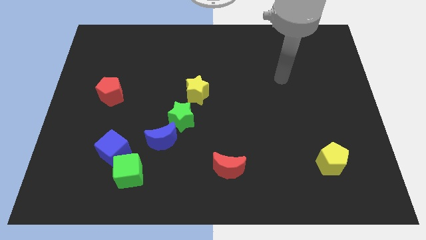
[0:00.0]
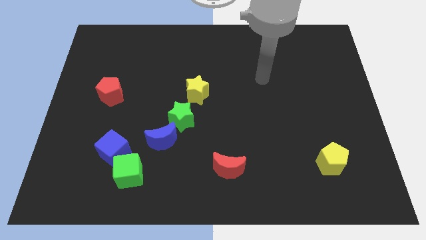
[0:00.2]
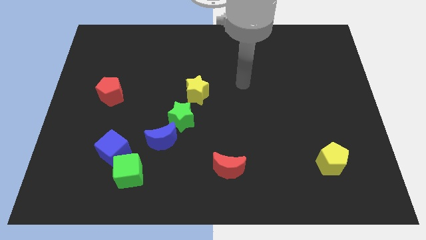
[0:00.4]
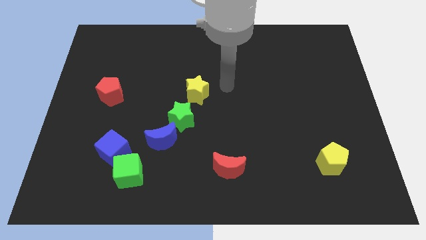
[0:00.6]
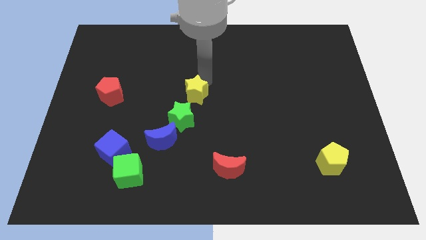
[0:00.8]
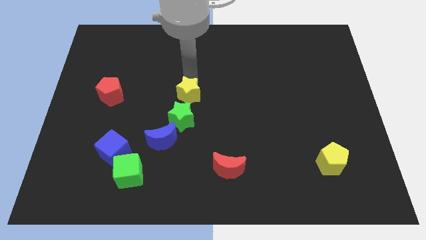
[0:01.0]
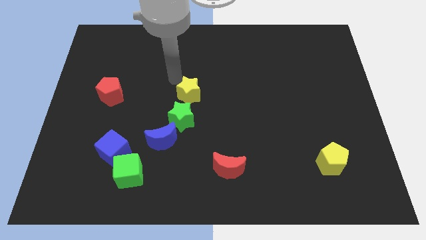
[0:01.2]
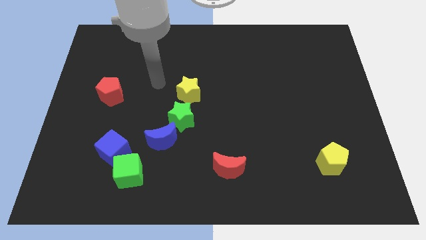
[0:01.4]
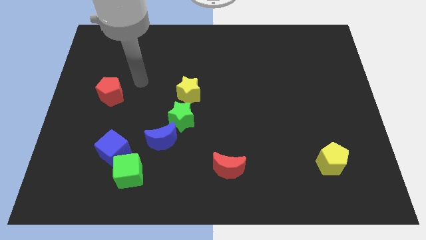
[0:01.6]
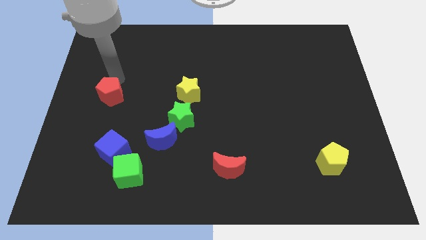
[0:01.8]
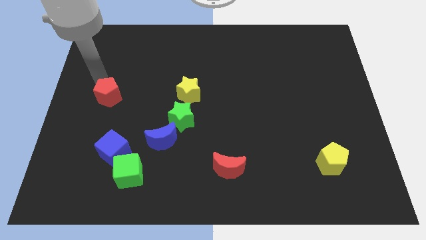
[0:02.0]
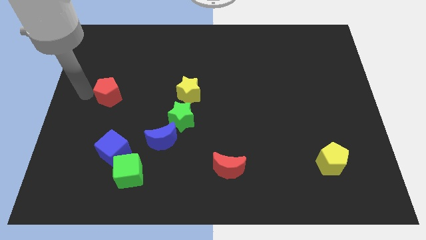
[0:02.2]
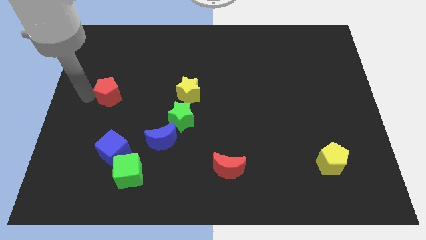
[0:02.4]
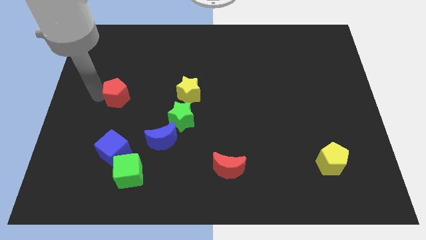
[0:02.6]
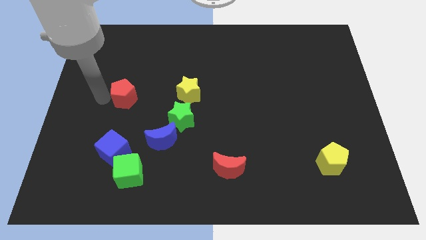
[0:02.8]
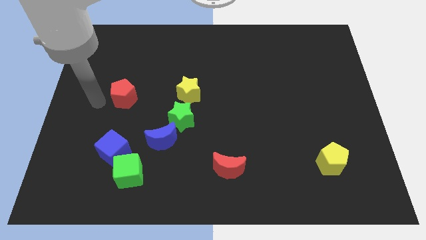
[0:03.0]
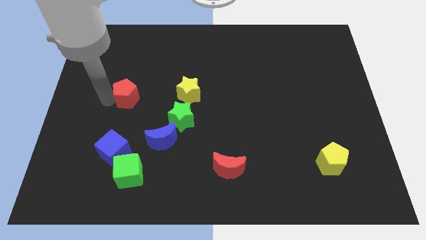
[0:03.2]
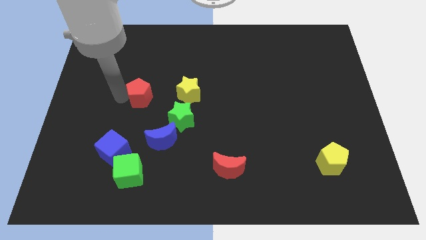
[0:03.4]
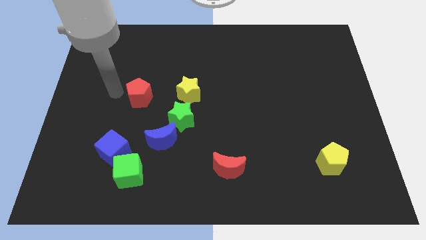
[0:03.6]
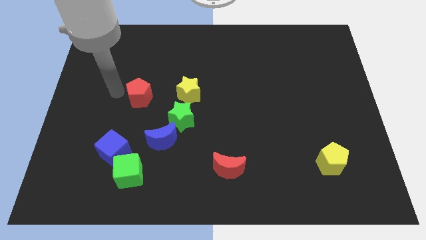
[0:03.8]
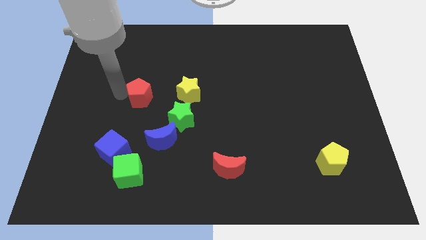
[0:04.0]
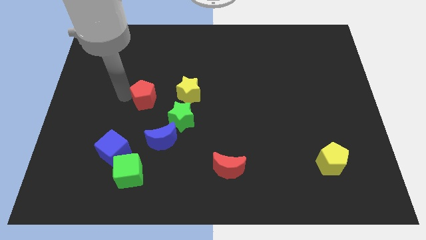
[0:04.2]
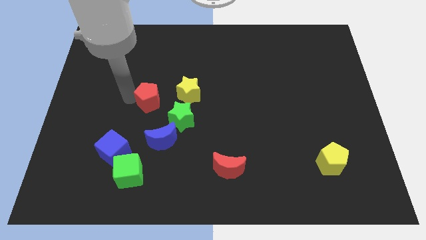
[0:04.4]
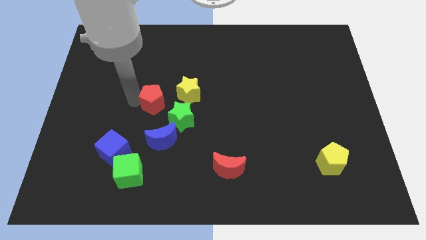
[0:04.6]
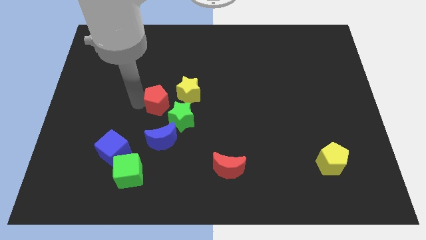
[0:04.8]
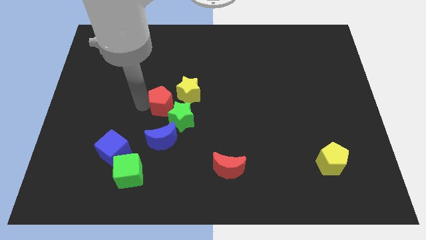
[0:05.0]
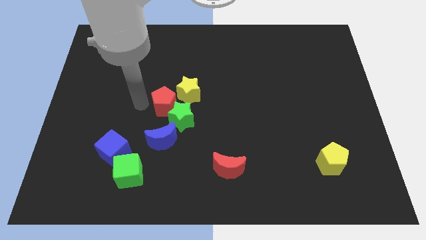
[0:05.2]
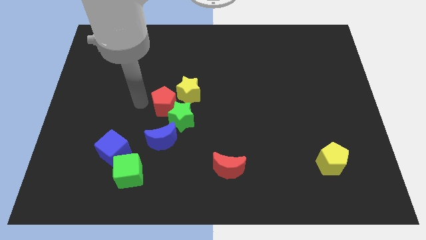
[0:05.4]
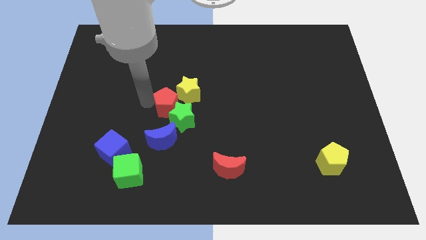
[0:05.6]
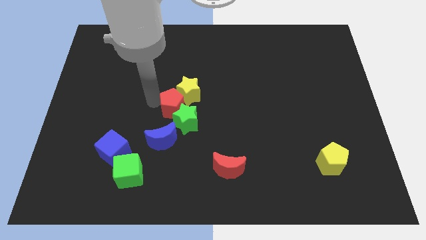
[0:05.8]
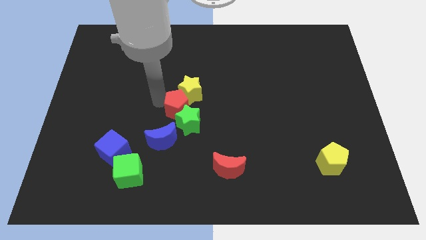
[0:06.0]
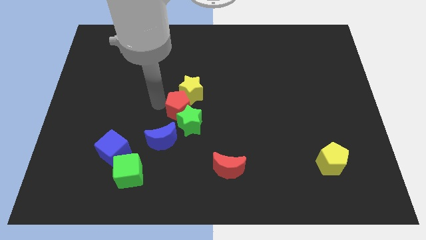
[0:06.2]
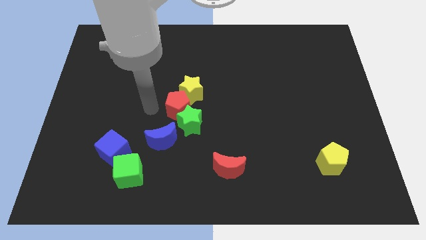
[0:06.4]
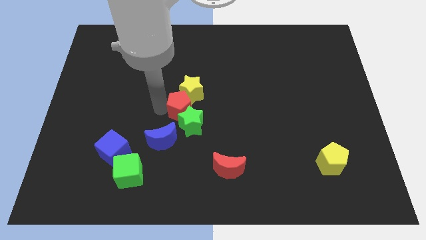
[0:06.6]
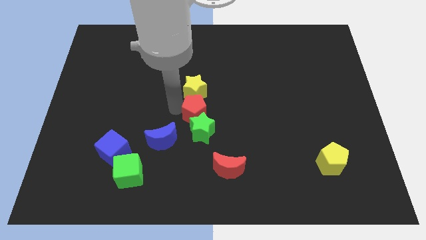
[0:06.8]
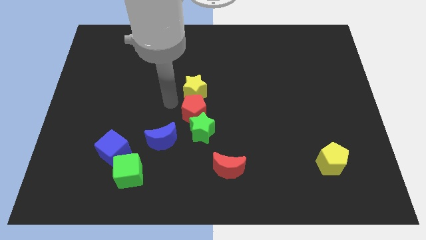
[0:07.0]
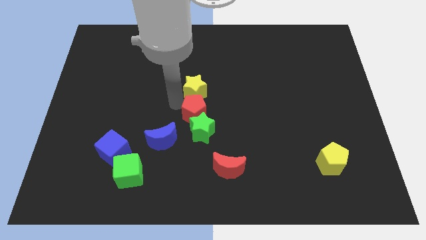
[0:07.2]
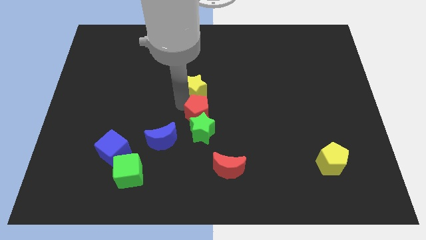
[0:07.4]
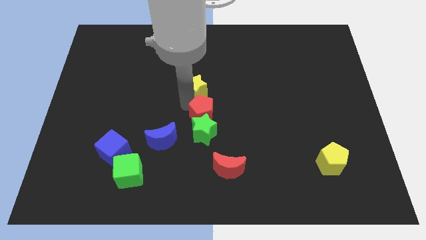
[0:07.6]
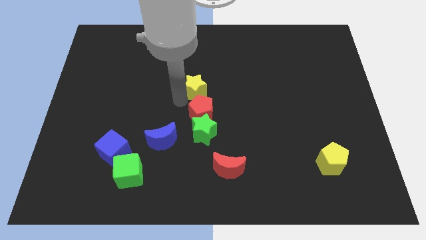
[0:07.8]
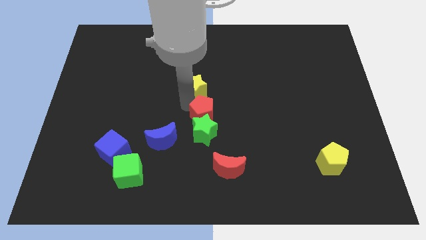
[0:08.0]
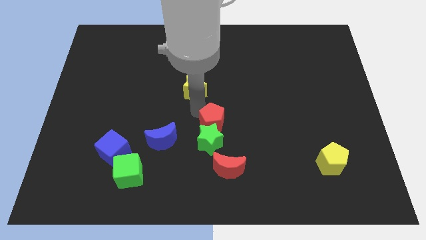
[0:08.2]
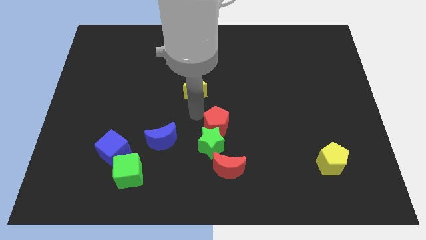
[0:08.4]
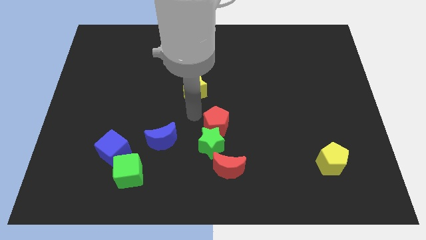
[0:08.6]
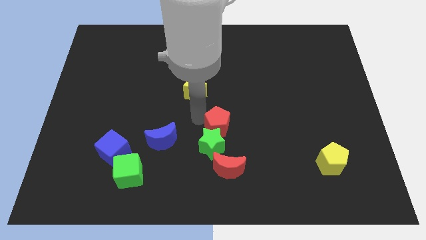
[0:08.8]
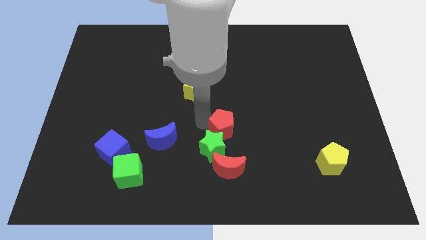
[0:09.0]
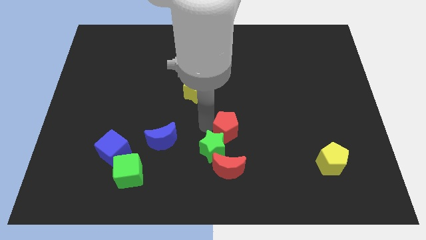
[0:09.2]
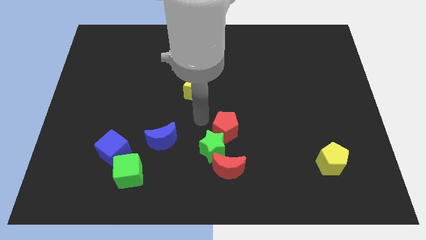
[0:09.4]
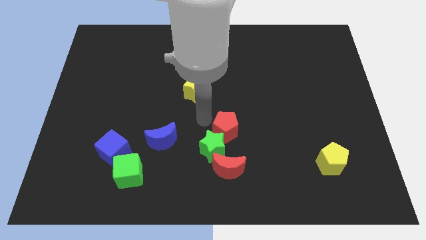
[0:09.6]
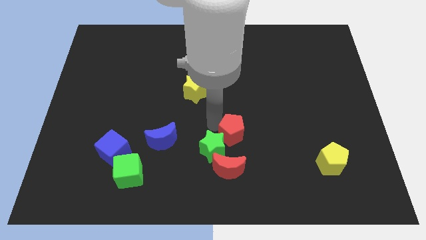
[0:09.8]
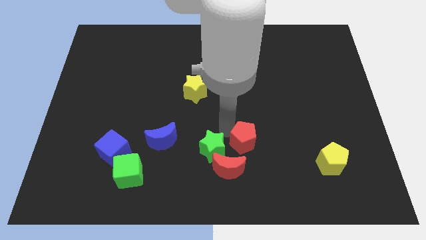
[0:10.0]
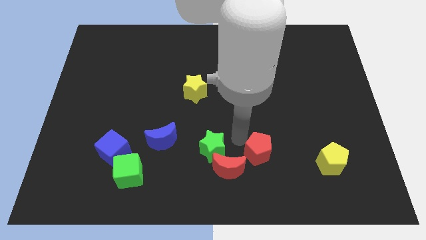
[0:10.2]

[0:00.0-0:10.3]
put the red pentagon to the left of the yellow pentagon

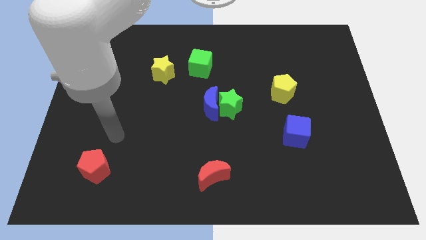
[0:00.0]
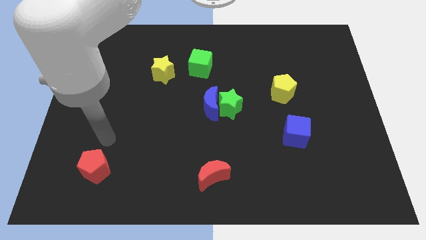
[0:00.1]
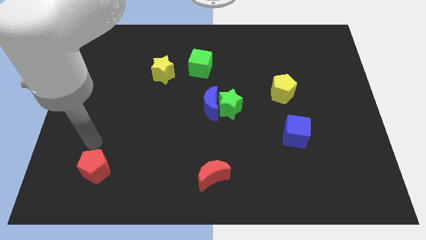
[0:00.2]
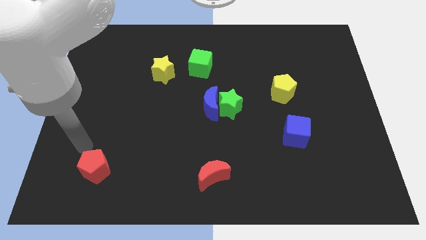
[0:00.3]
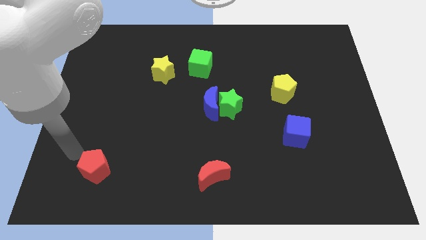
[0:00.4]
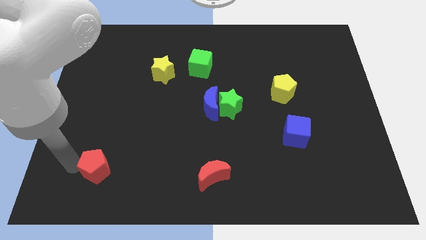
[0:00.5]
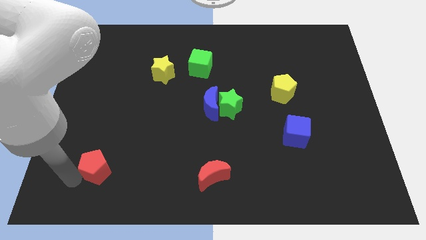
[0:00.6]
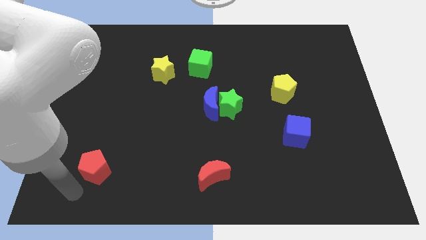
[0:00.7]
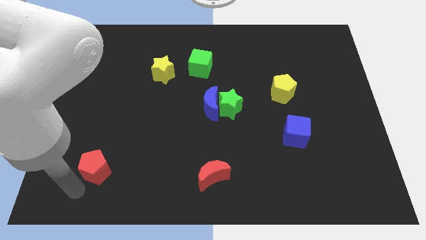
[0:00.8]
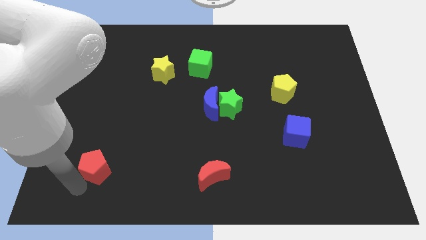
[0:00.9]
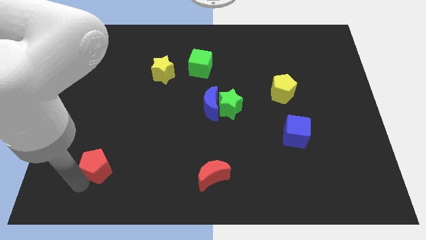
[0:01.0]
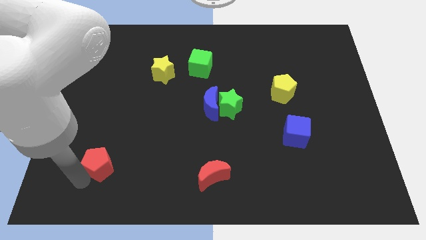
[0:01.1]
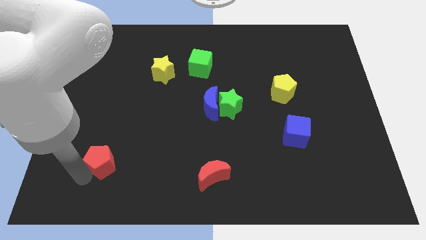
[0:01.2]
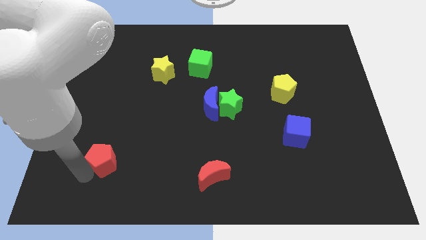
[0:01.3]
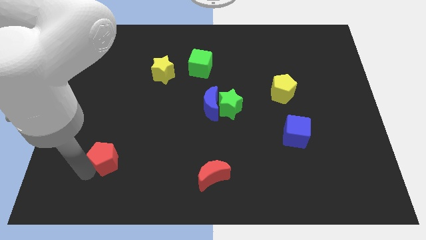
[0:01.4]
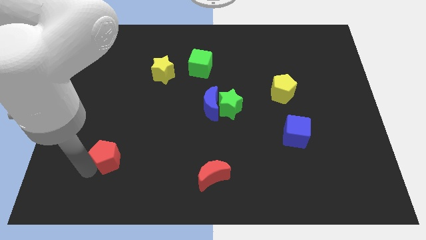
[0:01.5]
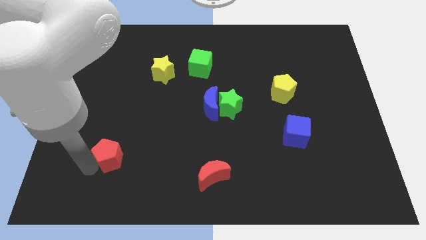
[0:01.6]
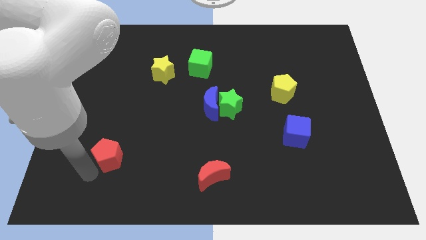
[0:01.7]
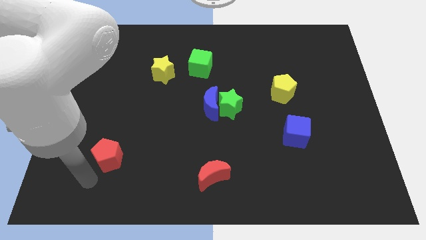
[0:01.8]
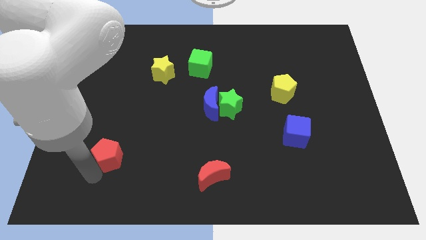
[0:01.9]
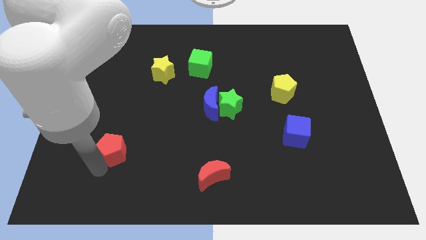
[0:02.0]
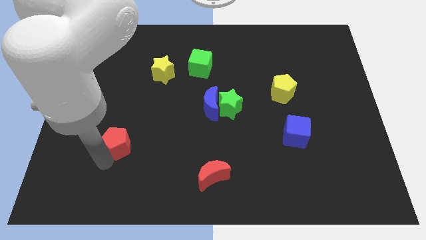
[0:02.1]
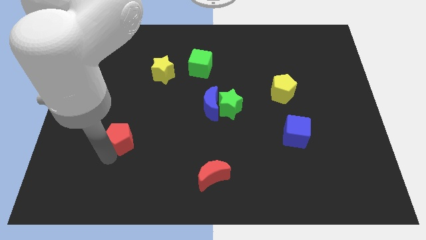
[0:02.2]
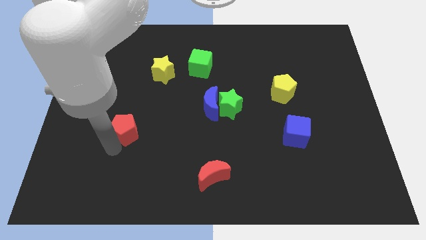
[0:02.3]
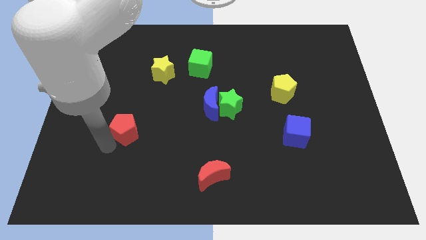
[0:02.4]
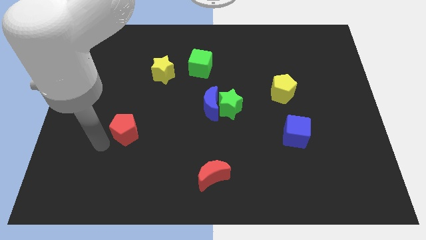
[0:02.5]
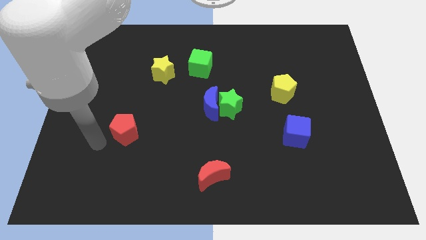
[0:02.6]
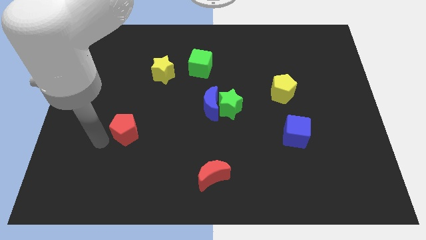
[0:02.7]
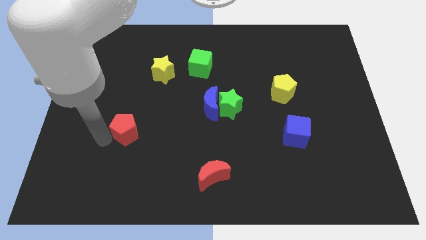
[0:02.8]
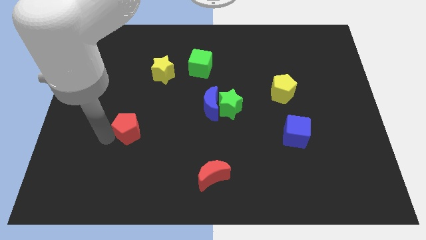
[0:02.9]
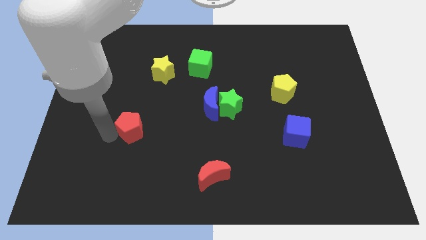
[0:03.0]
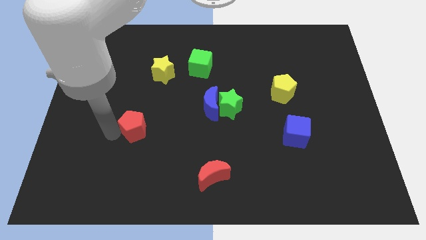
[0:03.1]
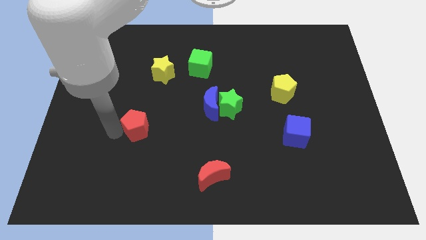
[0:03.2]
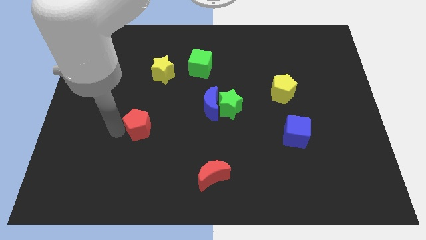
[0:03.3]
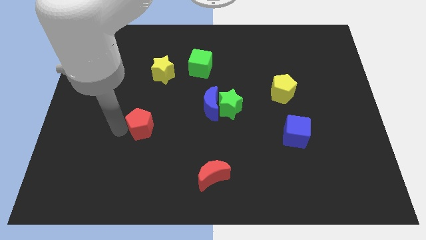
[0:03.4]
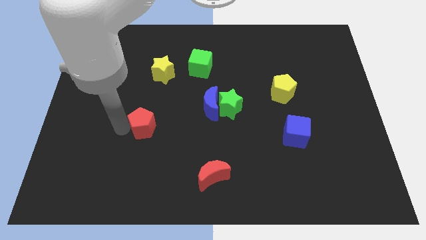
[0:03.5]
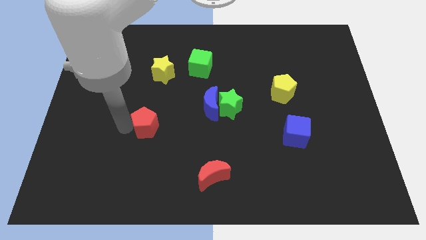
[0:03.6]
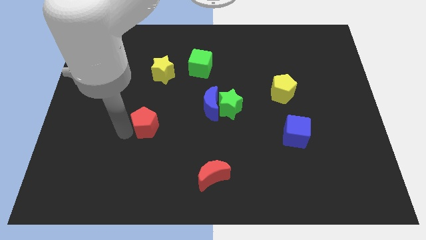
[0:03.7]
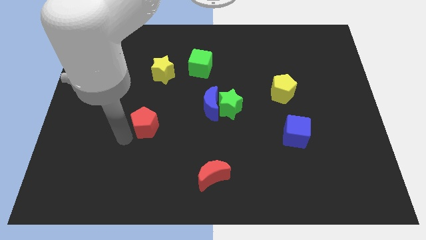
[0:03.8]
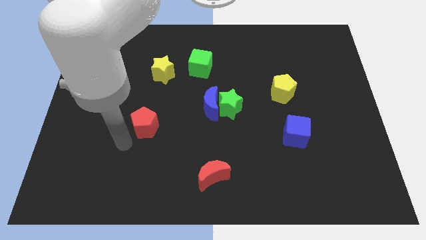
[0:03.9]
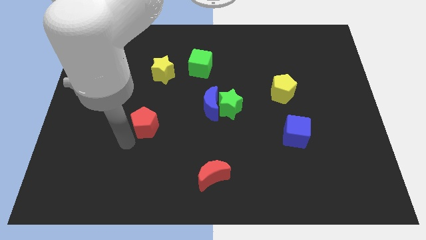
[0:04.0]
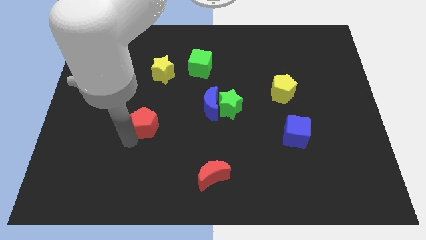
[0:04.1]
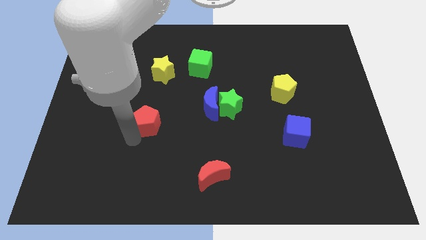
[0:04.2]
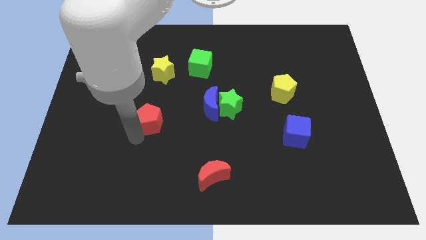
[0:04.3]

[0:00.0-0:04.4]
slide the red pentagon just left of the blue moon
